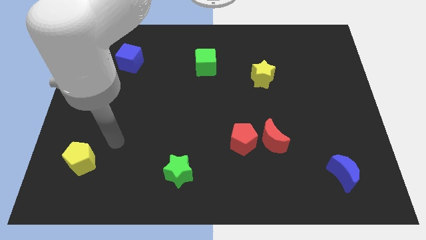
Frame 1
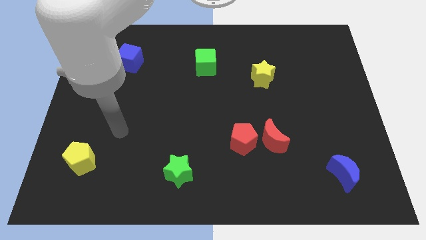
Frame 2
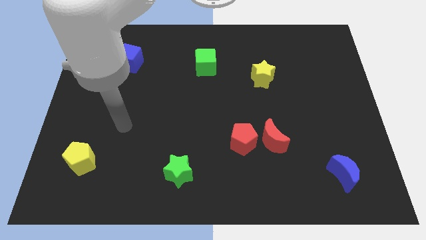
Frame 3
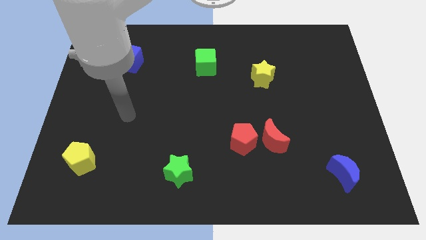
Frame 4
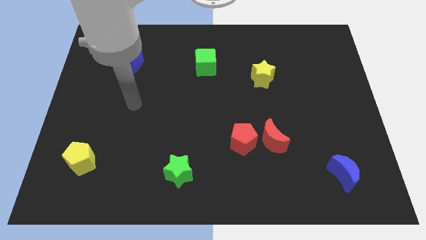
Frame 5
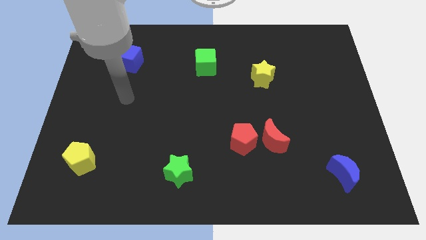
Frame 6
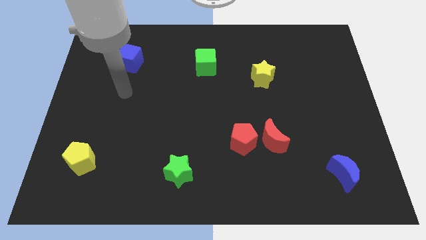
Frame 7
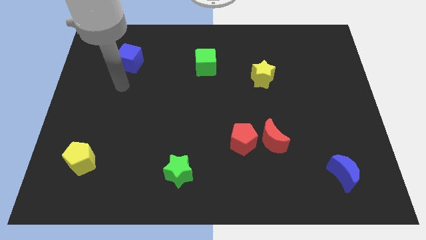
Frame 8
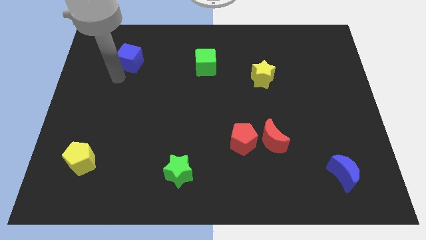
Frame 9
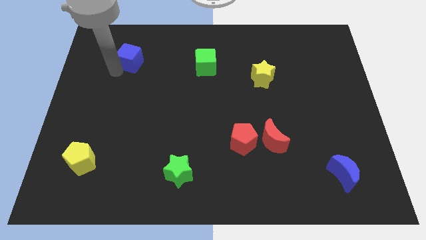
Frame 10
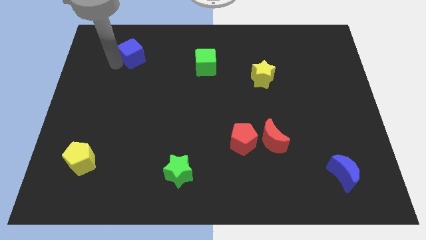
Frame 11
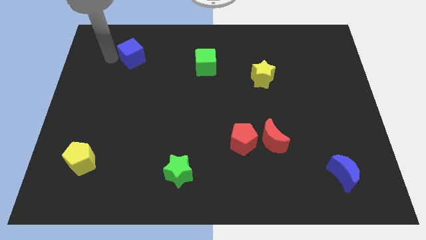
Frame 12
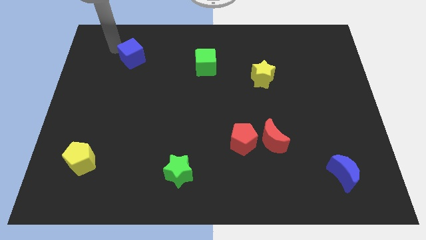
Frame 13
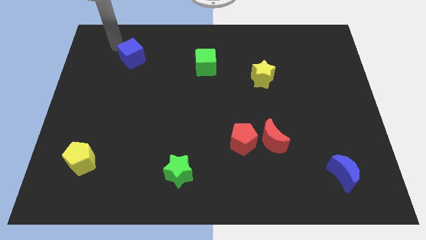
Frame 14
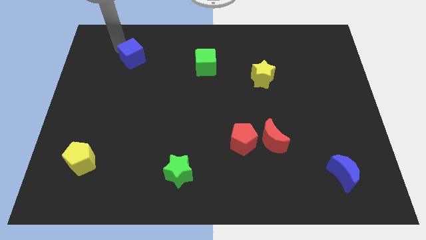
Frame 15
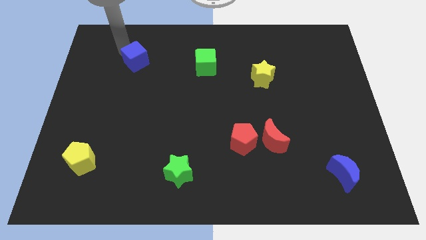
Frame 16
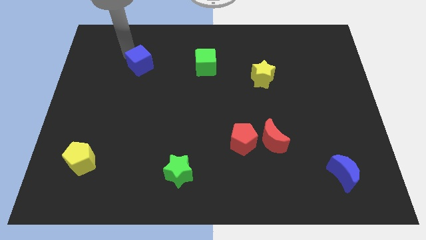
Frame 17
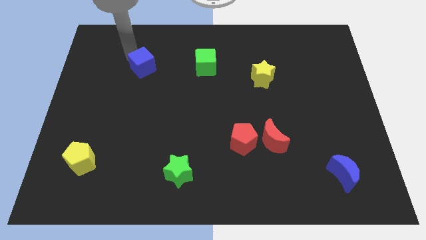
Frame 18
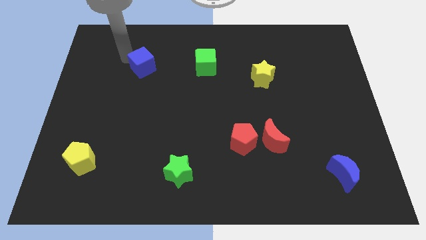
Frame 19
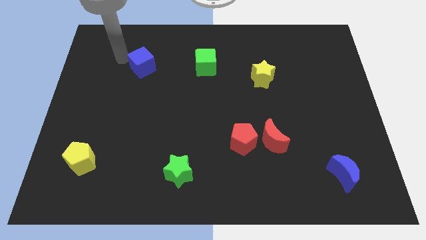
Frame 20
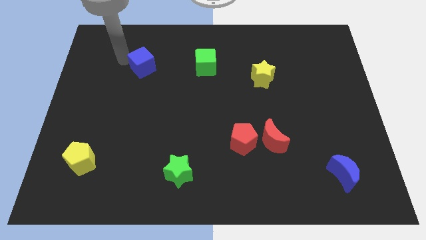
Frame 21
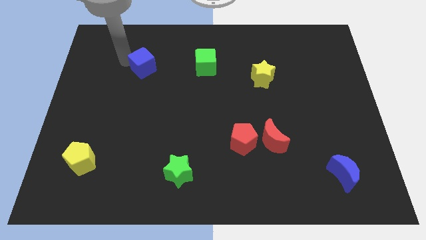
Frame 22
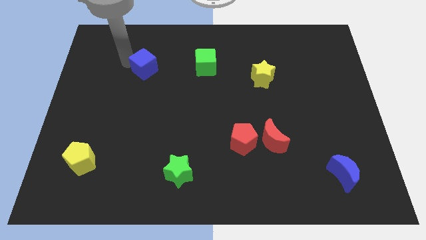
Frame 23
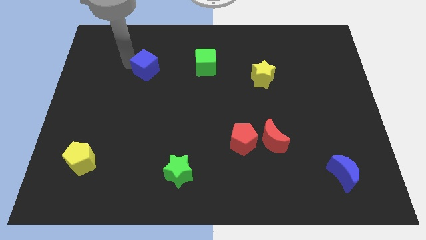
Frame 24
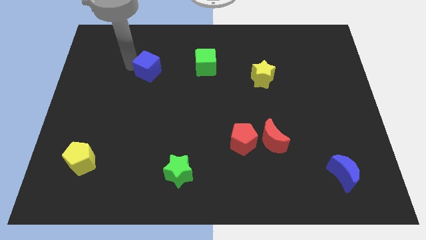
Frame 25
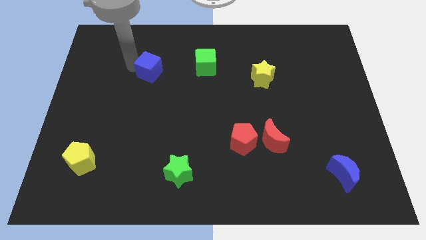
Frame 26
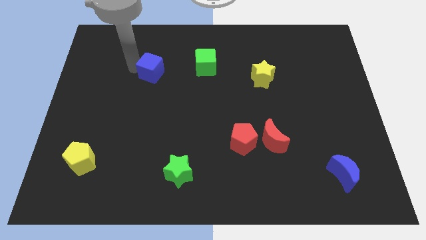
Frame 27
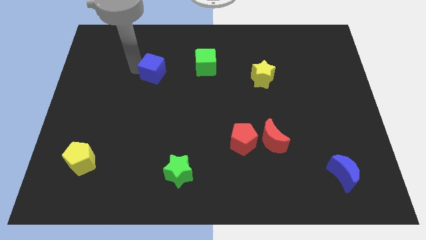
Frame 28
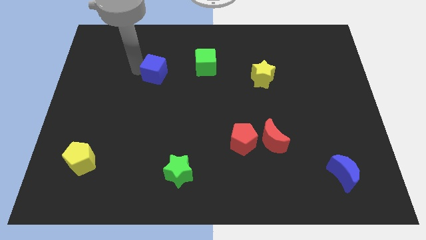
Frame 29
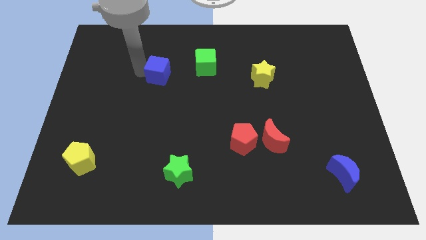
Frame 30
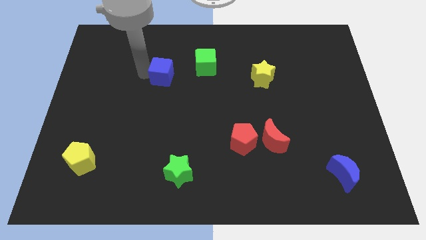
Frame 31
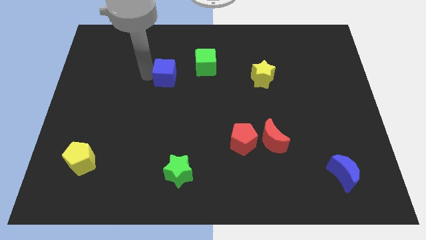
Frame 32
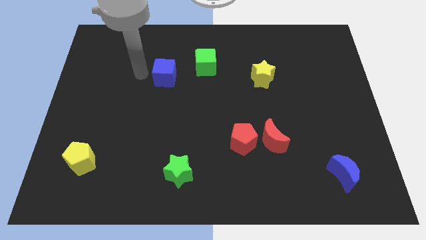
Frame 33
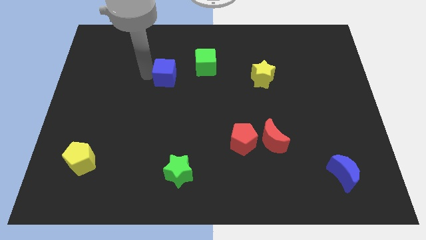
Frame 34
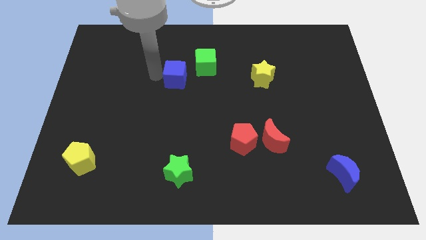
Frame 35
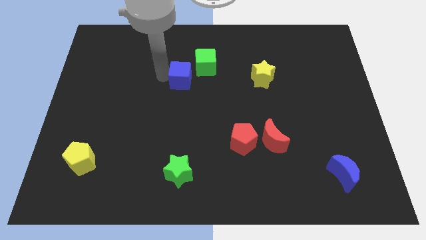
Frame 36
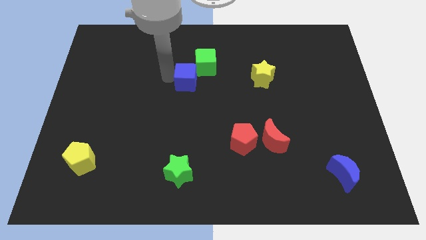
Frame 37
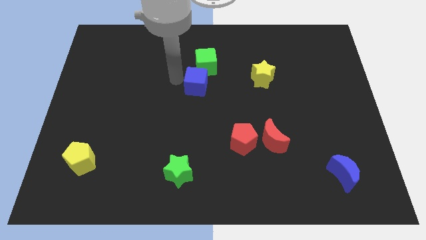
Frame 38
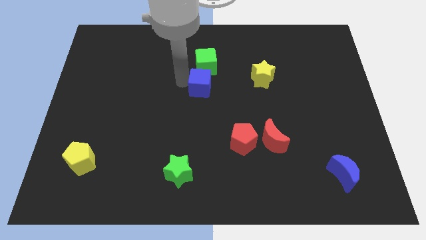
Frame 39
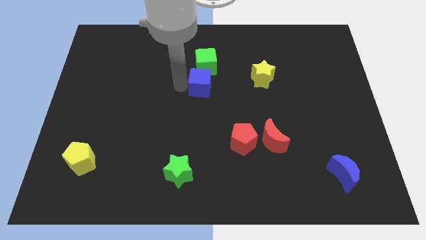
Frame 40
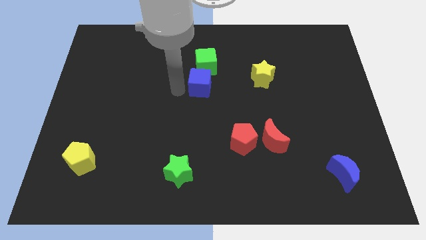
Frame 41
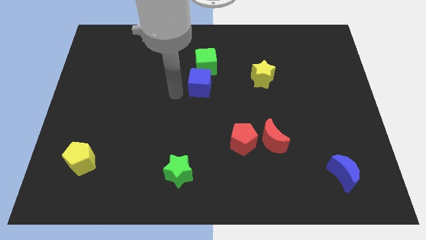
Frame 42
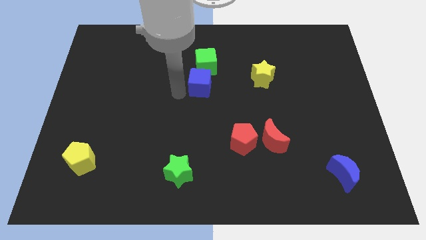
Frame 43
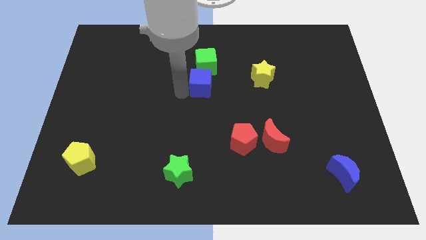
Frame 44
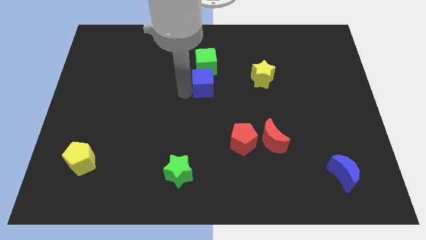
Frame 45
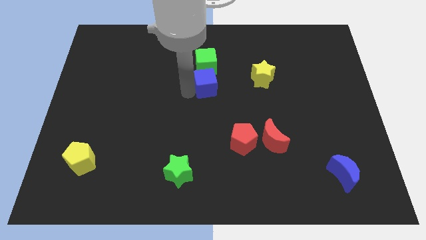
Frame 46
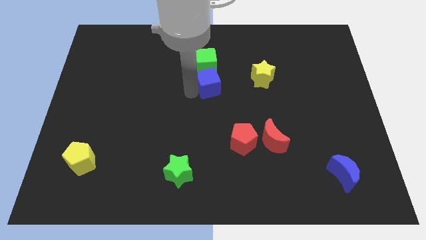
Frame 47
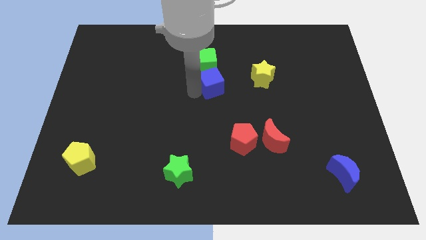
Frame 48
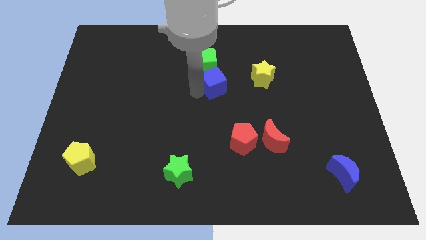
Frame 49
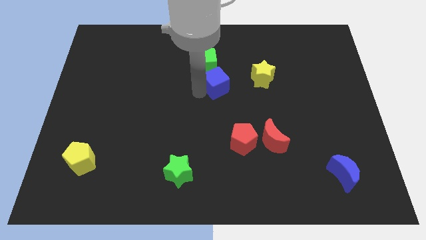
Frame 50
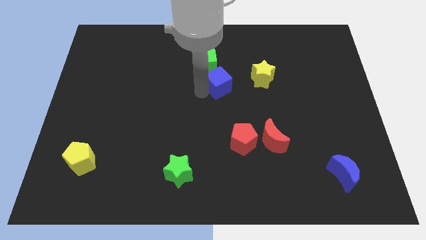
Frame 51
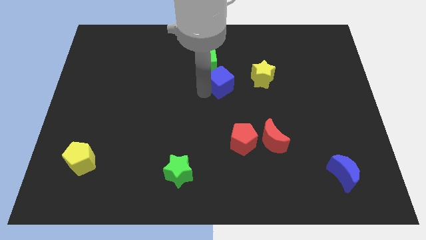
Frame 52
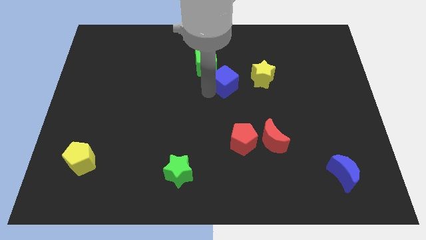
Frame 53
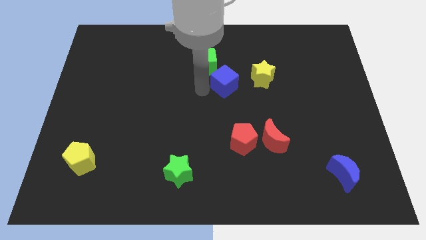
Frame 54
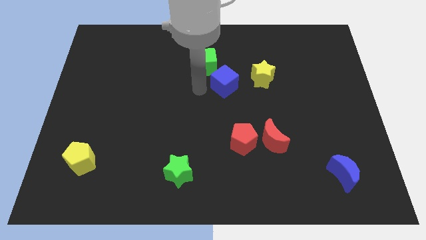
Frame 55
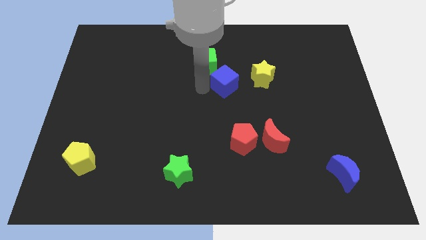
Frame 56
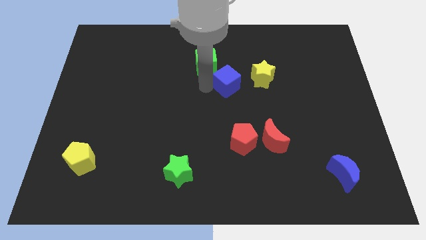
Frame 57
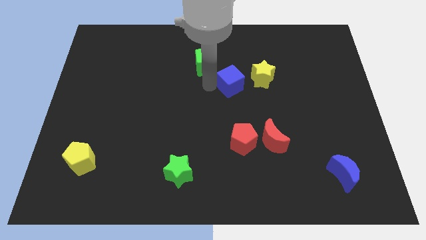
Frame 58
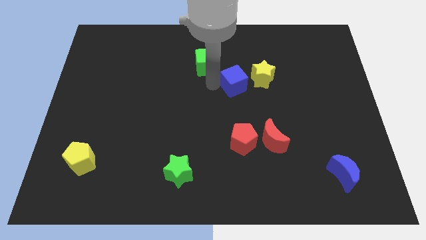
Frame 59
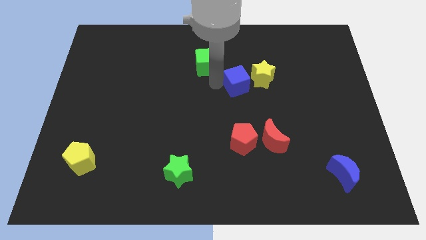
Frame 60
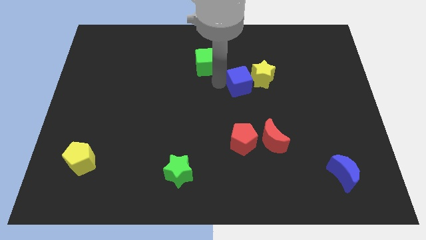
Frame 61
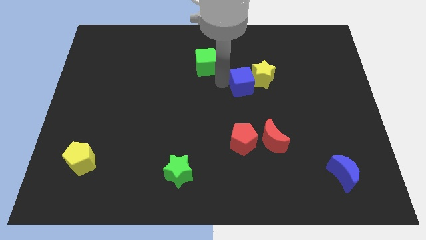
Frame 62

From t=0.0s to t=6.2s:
push the blue cube towards the yellow star

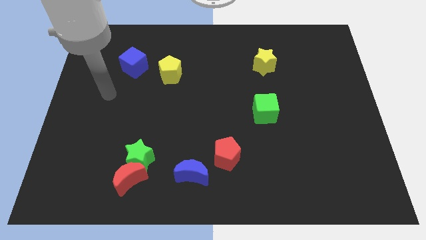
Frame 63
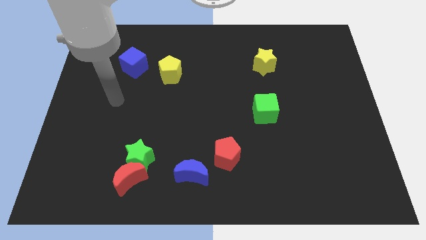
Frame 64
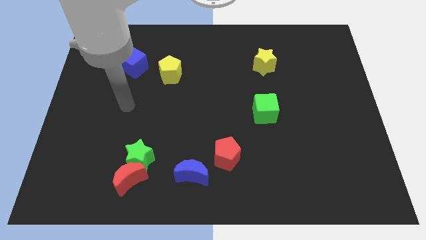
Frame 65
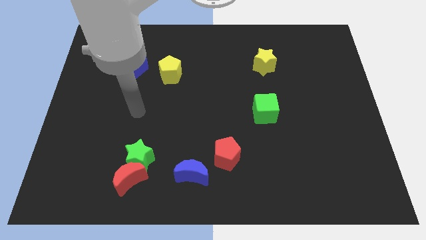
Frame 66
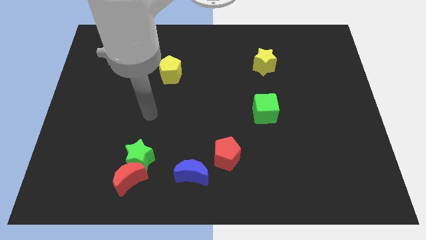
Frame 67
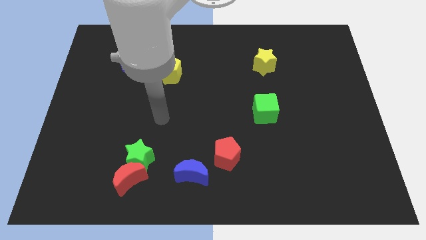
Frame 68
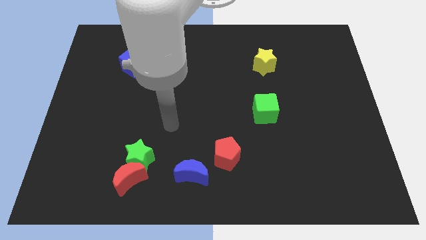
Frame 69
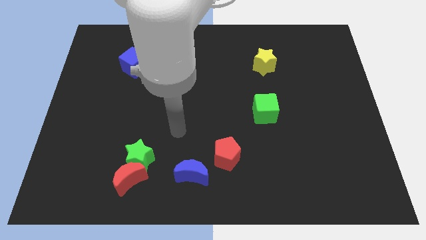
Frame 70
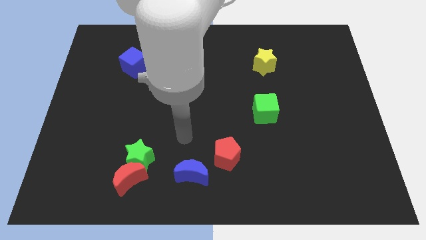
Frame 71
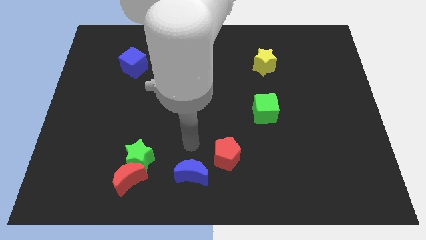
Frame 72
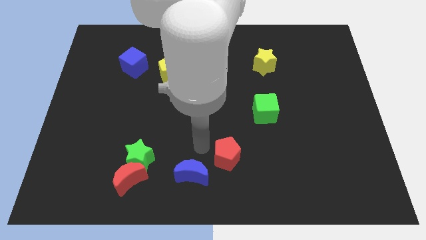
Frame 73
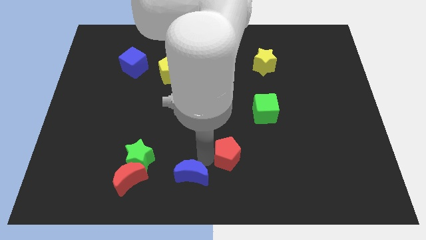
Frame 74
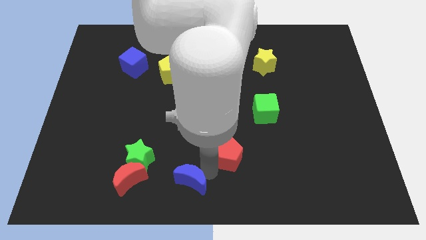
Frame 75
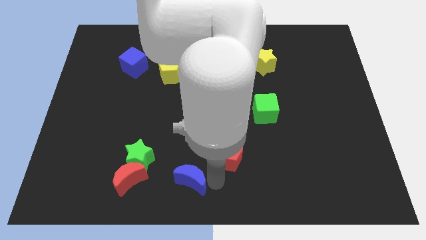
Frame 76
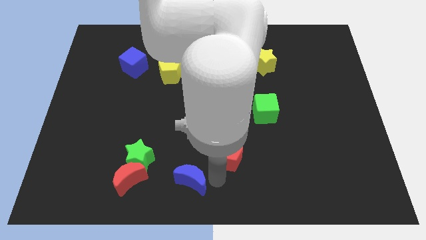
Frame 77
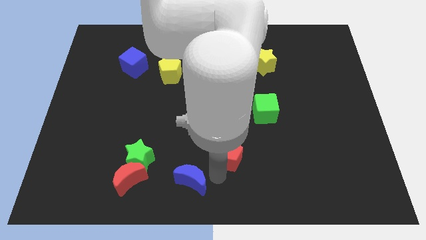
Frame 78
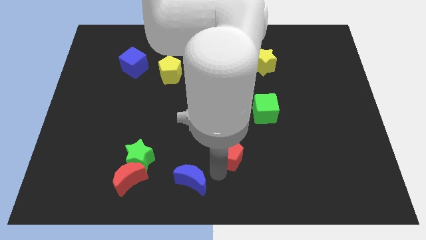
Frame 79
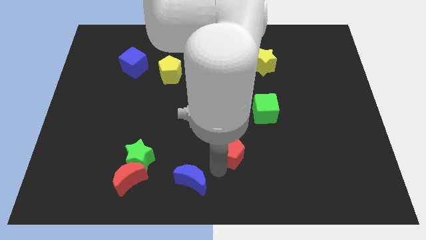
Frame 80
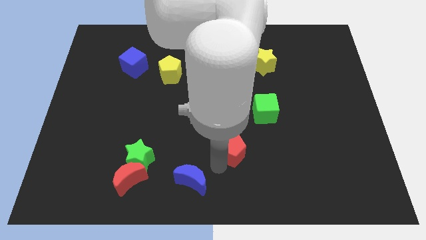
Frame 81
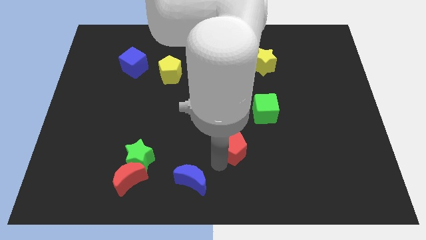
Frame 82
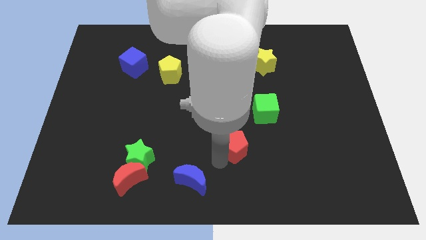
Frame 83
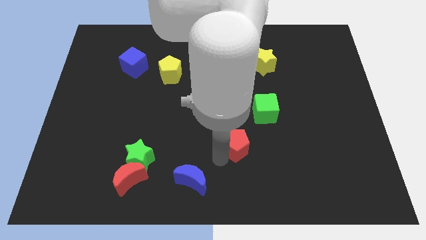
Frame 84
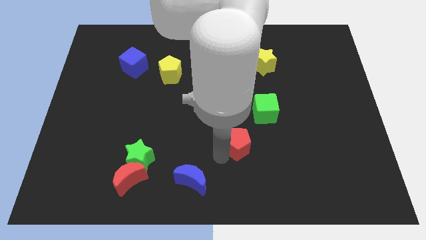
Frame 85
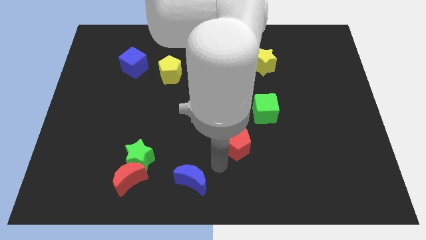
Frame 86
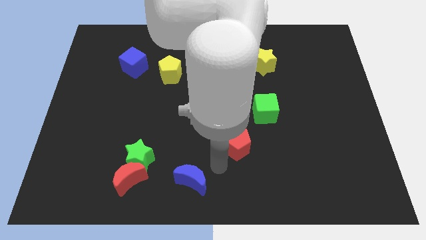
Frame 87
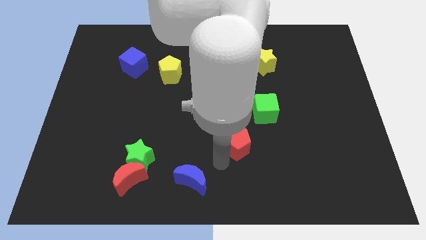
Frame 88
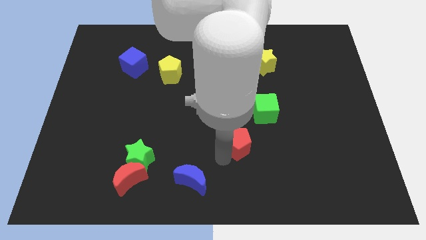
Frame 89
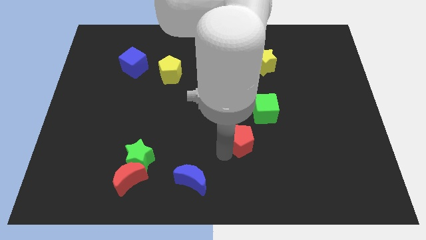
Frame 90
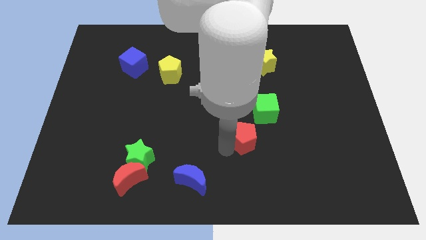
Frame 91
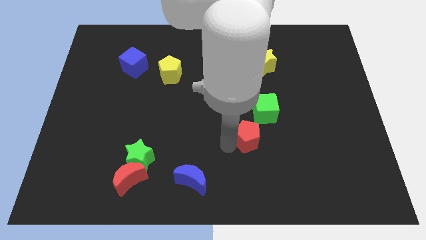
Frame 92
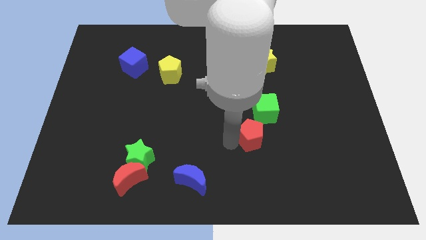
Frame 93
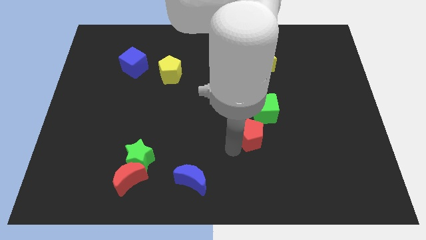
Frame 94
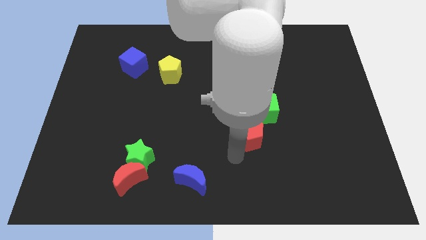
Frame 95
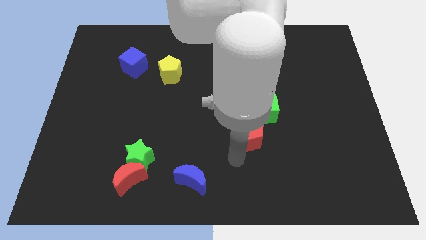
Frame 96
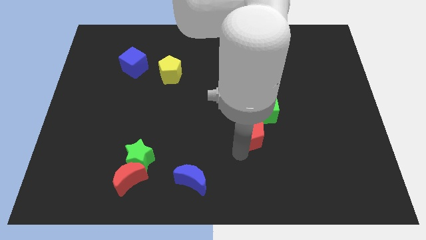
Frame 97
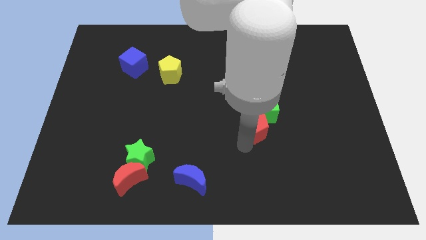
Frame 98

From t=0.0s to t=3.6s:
slide the red pentagon close to the green cube
